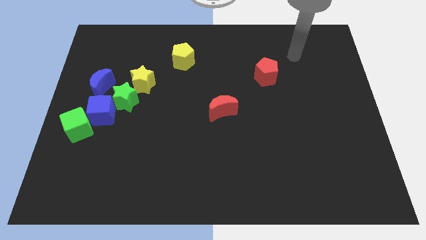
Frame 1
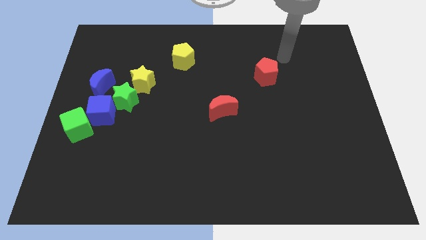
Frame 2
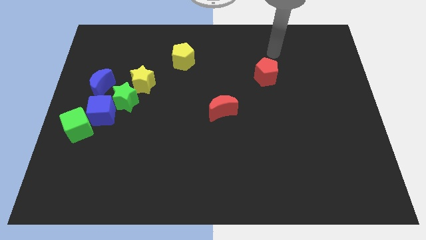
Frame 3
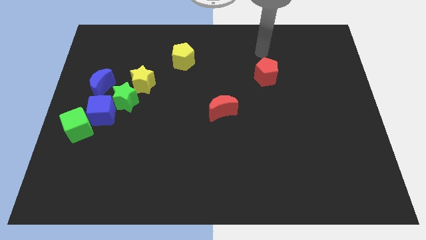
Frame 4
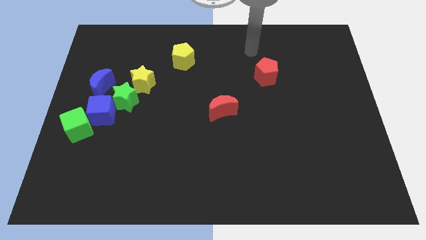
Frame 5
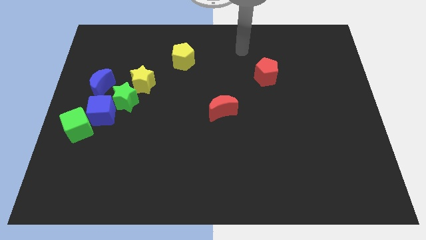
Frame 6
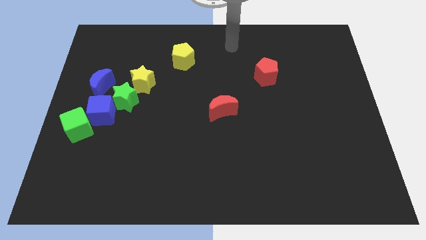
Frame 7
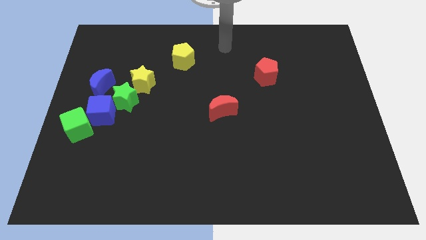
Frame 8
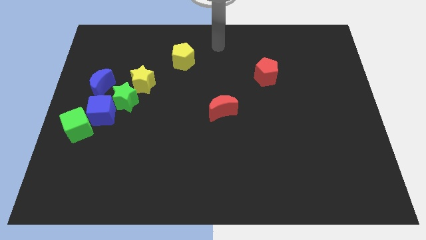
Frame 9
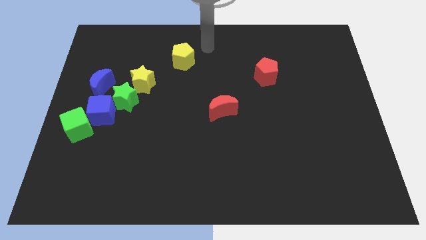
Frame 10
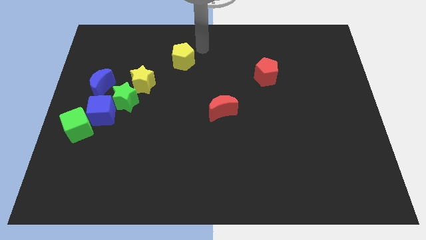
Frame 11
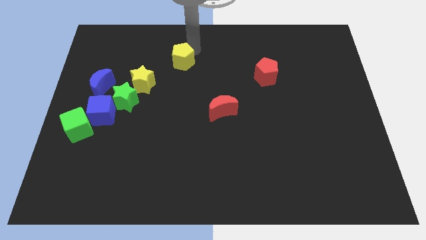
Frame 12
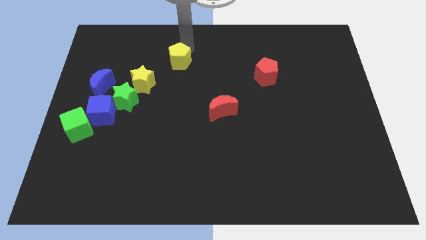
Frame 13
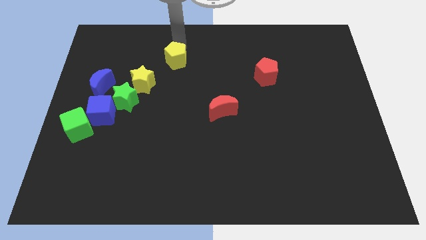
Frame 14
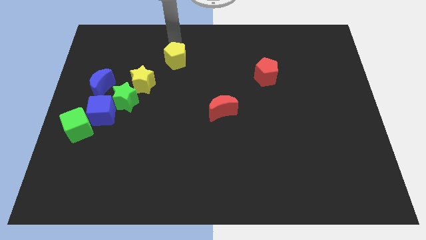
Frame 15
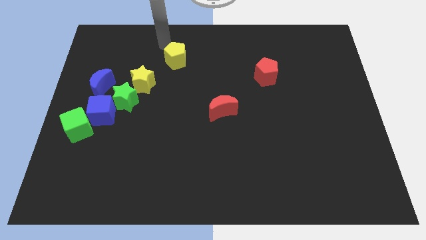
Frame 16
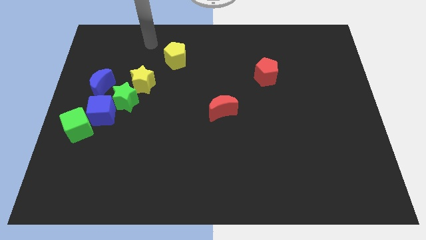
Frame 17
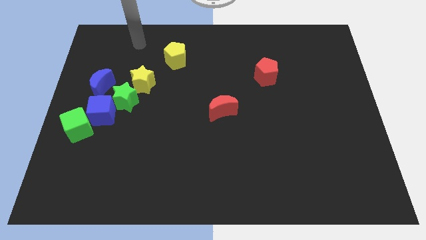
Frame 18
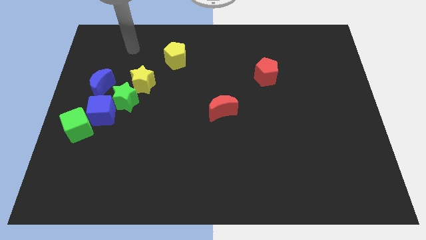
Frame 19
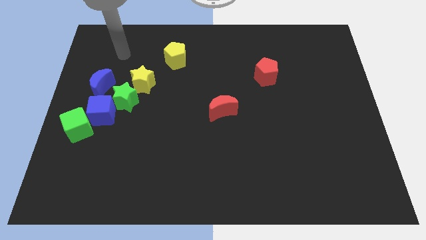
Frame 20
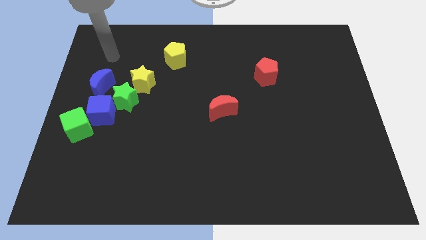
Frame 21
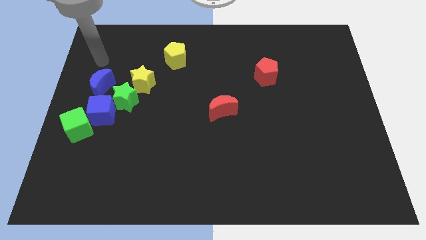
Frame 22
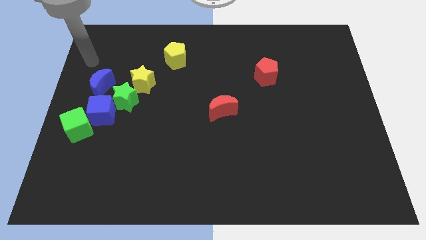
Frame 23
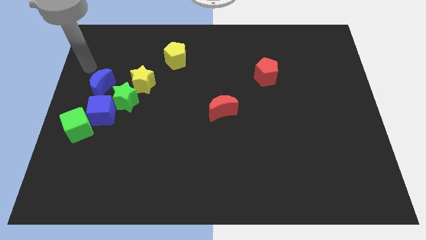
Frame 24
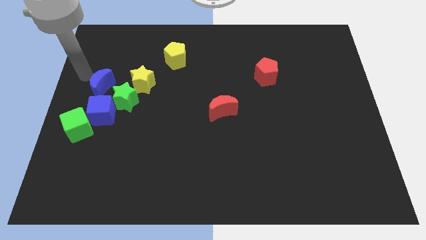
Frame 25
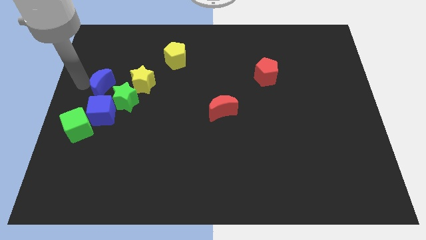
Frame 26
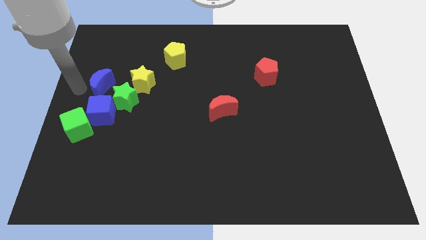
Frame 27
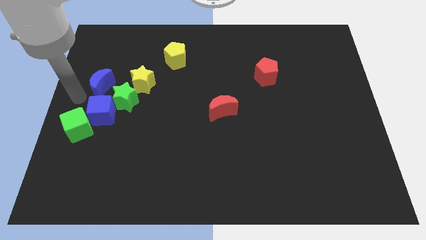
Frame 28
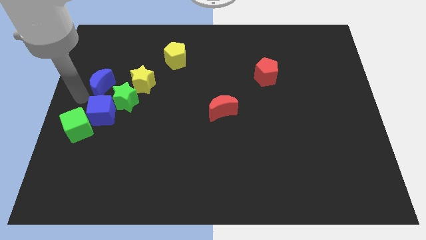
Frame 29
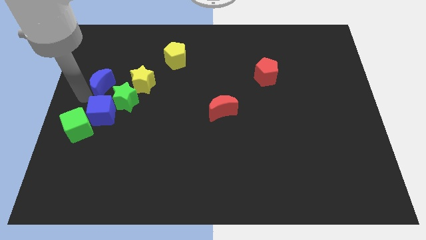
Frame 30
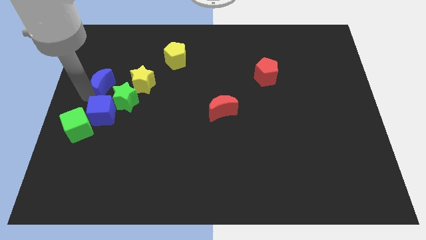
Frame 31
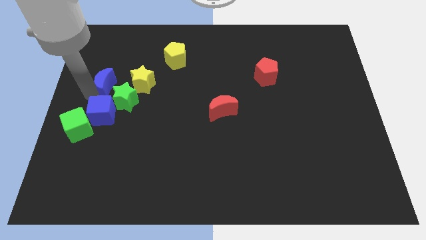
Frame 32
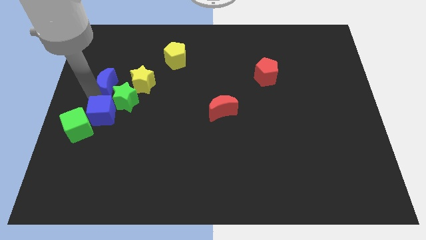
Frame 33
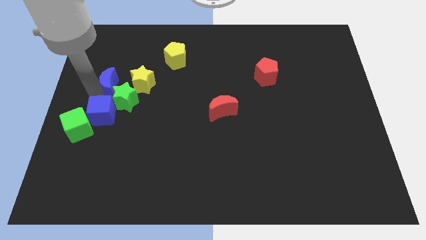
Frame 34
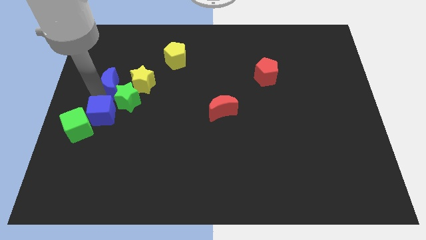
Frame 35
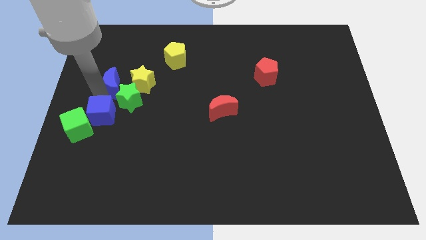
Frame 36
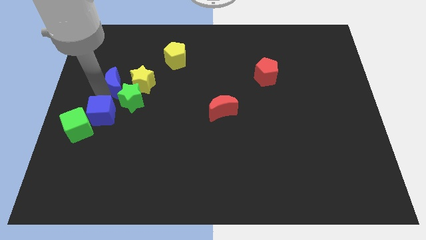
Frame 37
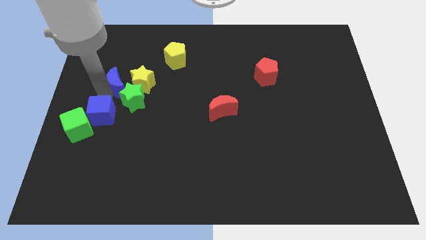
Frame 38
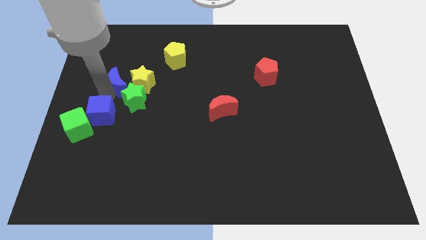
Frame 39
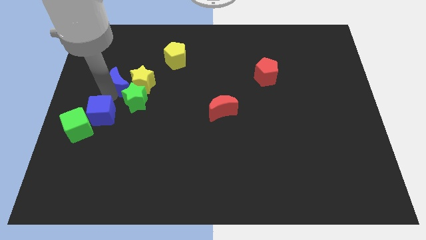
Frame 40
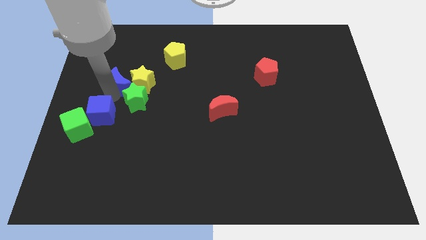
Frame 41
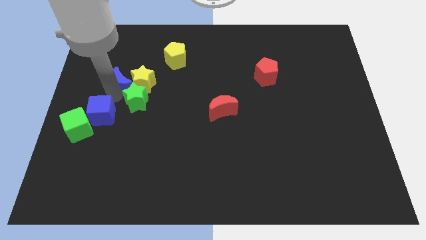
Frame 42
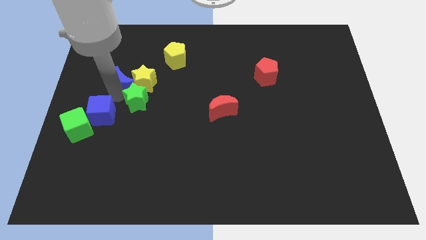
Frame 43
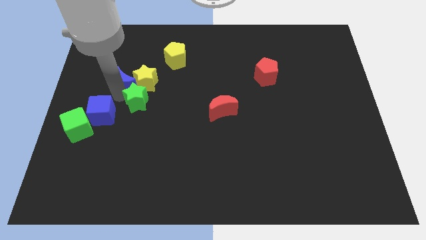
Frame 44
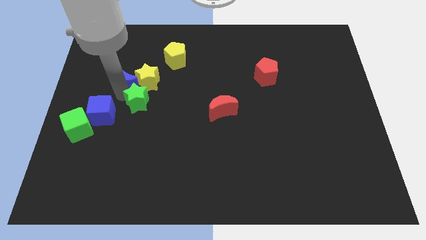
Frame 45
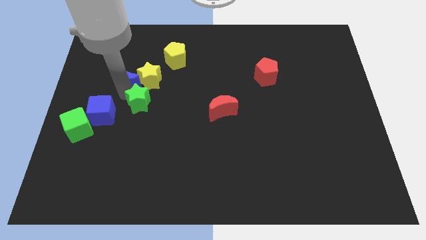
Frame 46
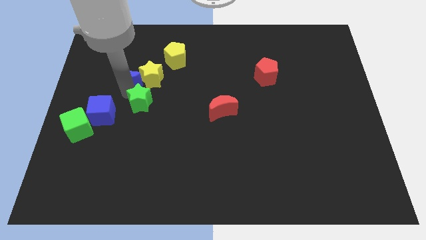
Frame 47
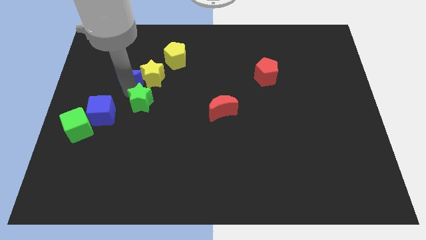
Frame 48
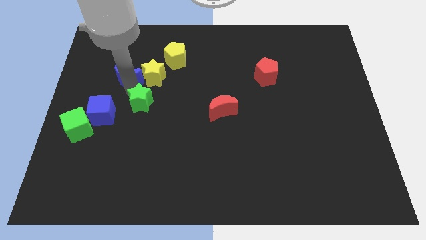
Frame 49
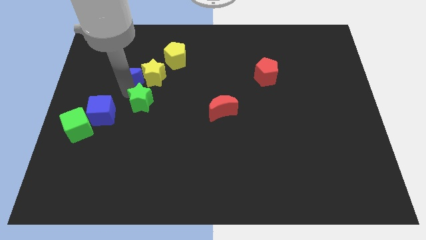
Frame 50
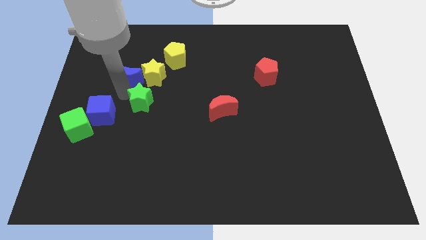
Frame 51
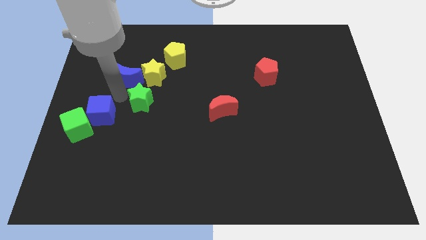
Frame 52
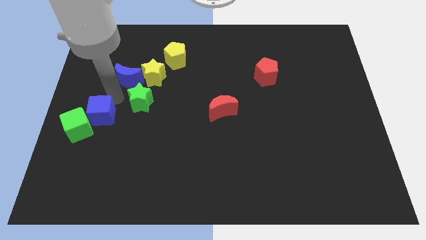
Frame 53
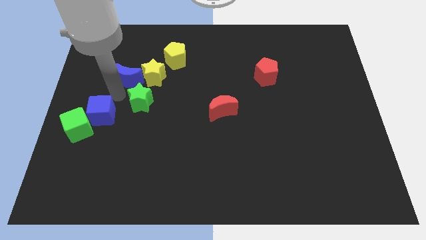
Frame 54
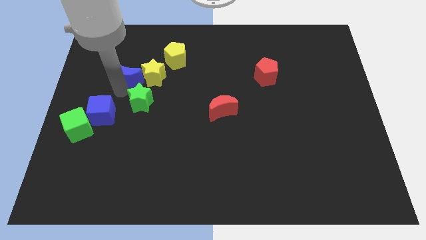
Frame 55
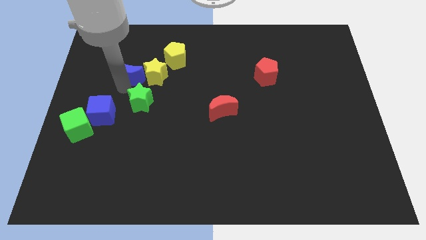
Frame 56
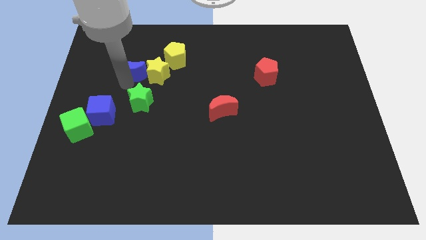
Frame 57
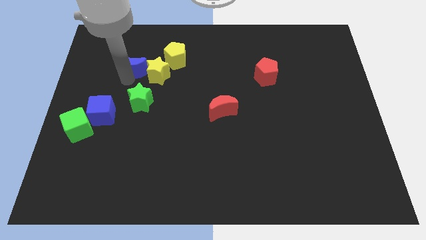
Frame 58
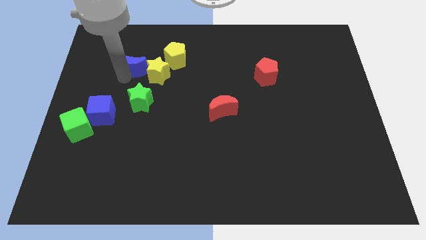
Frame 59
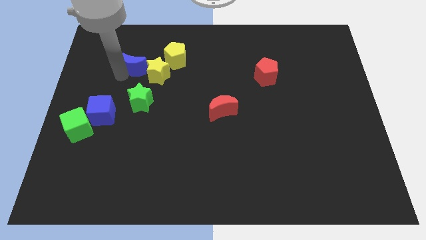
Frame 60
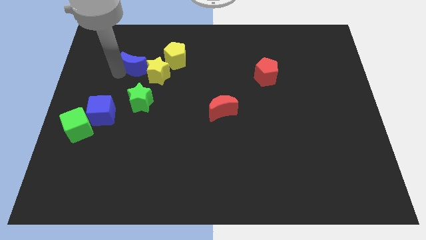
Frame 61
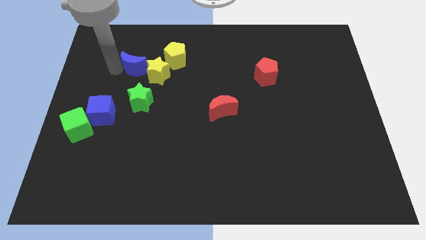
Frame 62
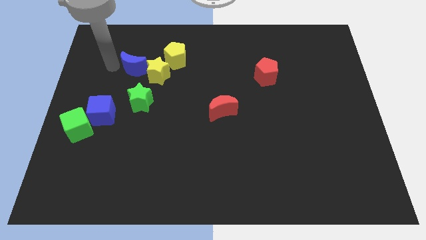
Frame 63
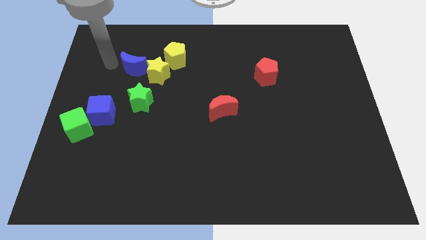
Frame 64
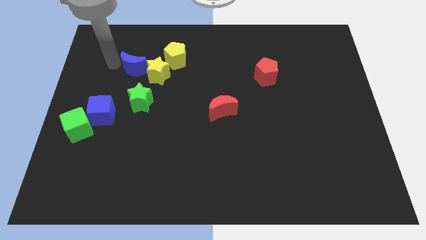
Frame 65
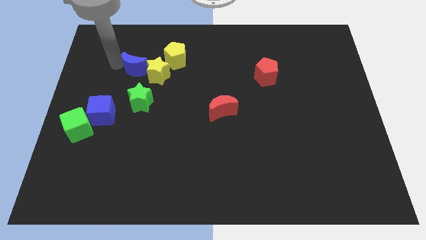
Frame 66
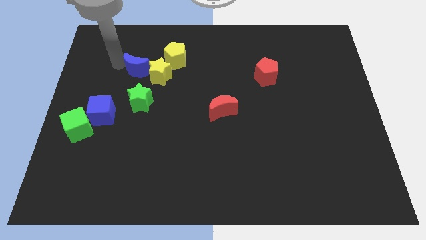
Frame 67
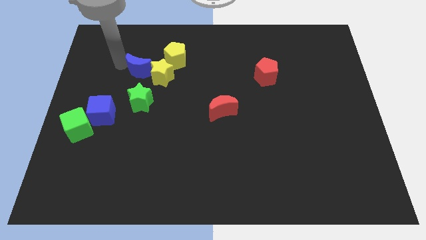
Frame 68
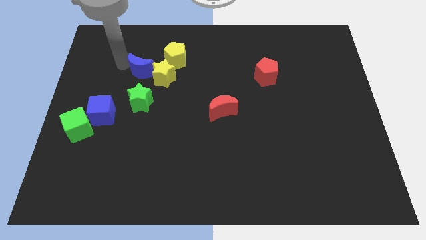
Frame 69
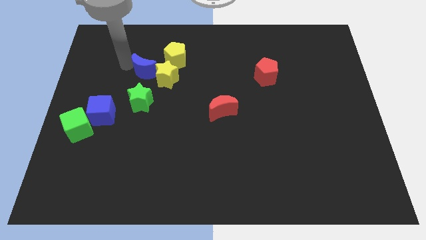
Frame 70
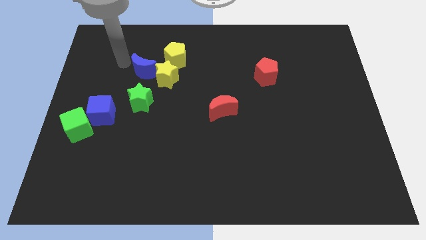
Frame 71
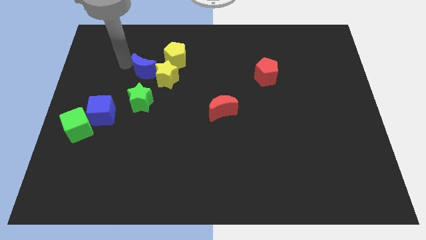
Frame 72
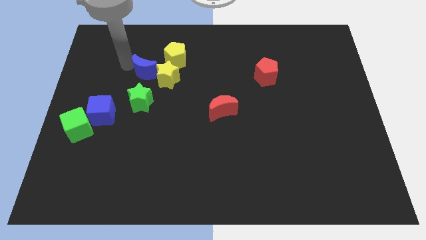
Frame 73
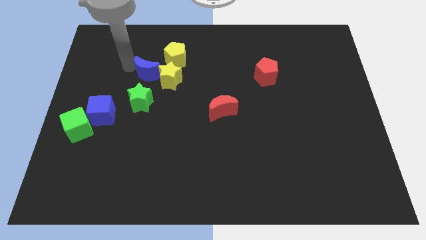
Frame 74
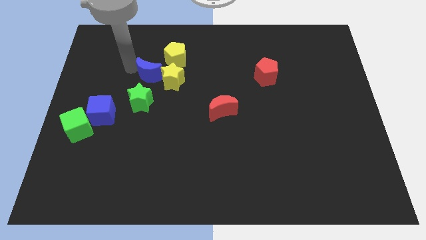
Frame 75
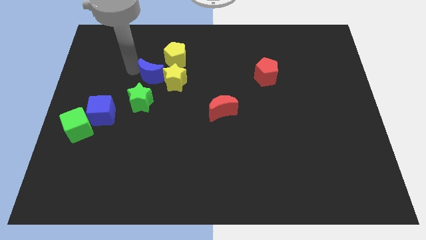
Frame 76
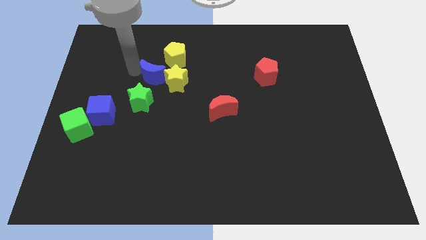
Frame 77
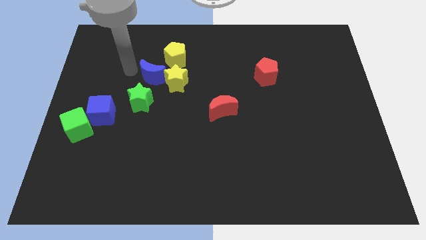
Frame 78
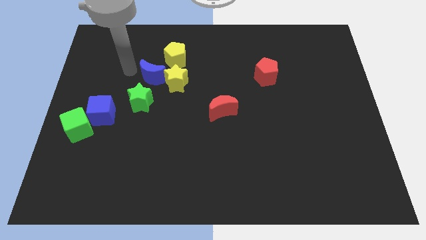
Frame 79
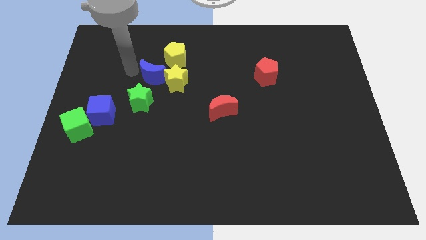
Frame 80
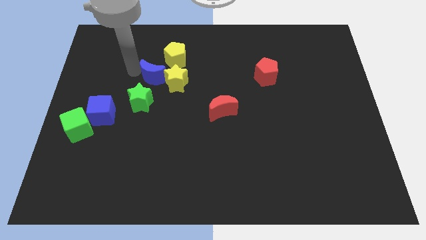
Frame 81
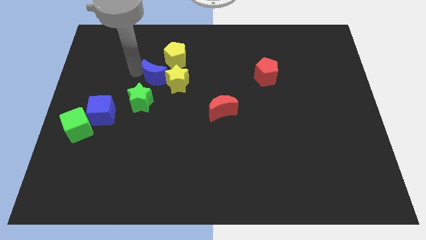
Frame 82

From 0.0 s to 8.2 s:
move the blue moon to the bottom side of the yellow pentagon
